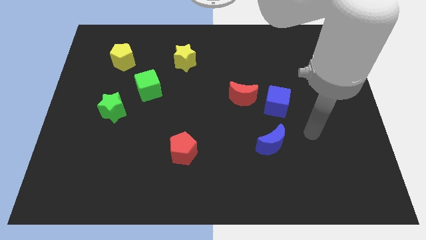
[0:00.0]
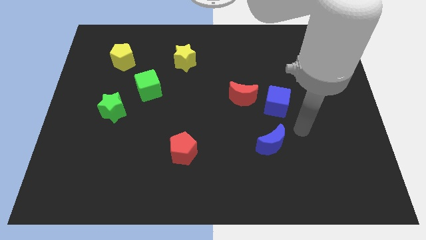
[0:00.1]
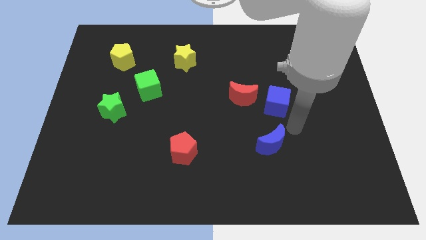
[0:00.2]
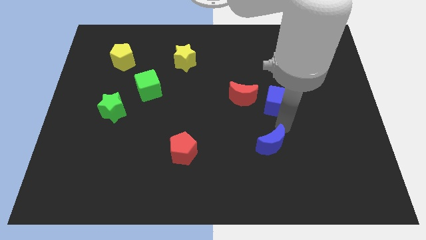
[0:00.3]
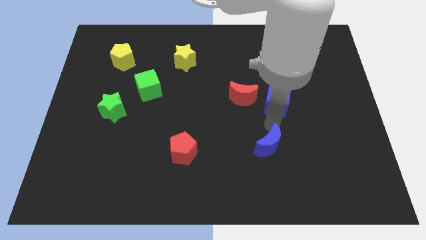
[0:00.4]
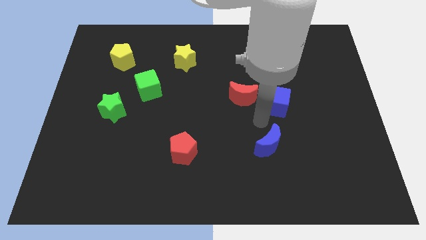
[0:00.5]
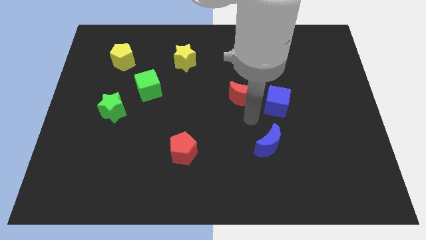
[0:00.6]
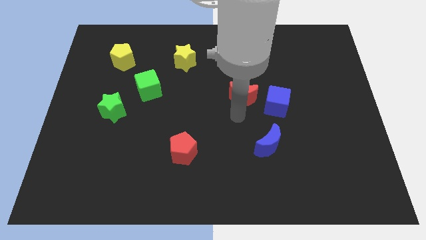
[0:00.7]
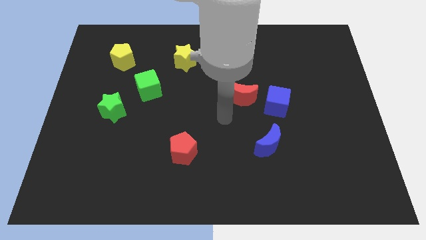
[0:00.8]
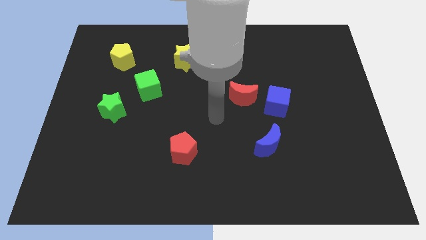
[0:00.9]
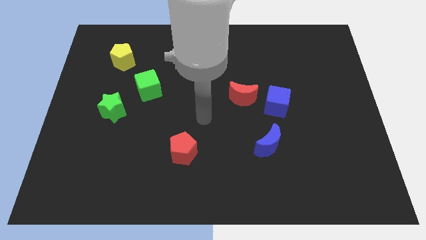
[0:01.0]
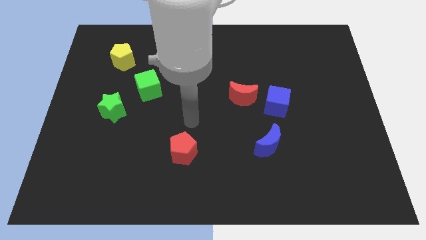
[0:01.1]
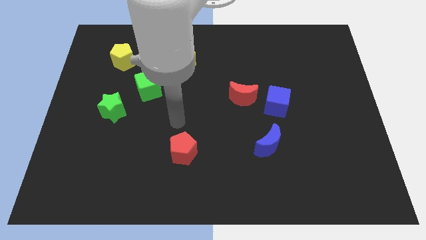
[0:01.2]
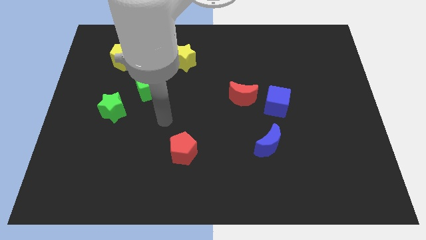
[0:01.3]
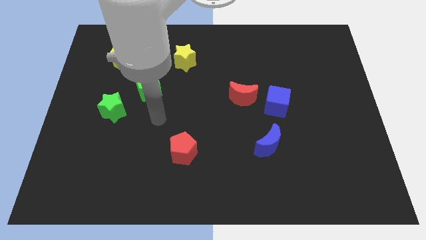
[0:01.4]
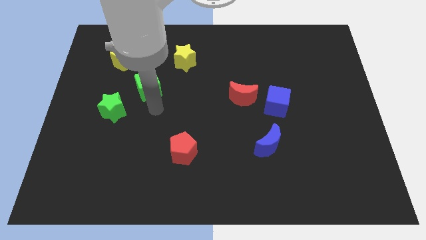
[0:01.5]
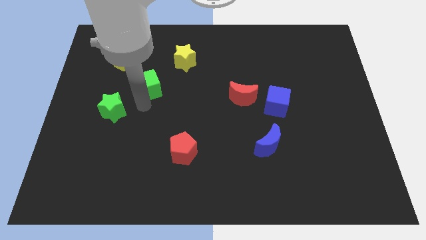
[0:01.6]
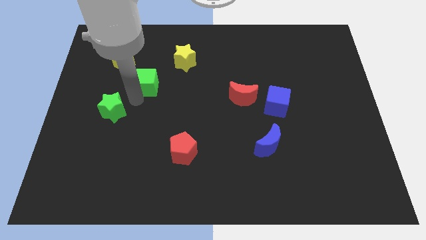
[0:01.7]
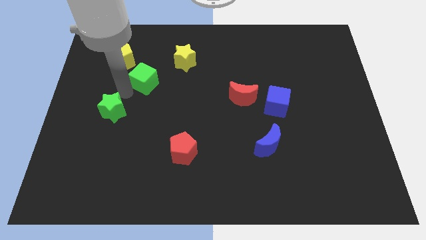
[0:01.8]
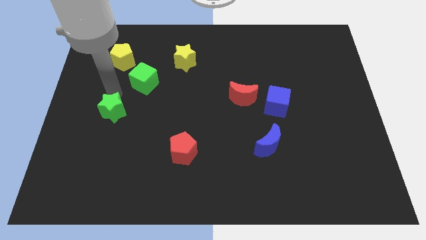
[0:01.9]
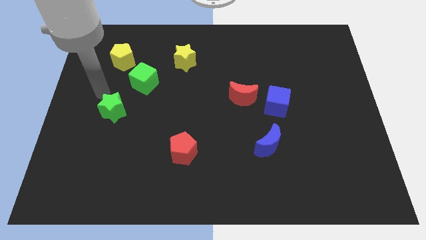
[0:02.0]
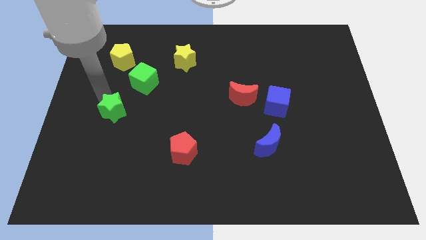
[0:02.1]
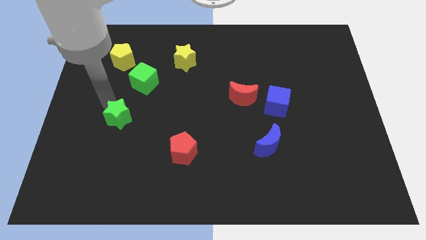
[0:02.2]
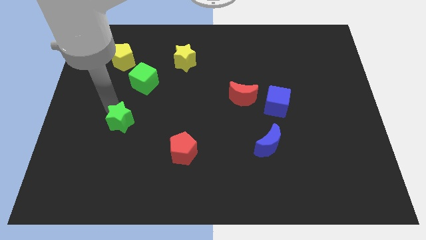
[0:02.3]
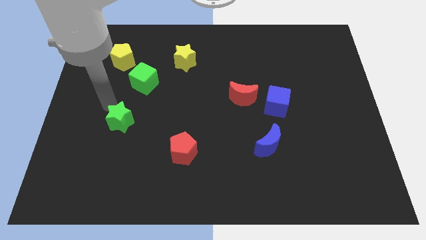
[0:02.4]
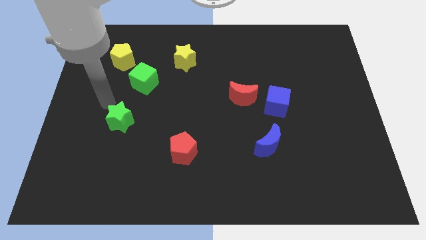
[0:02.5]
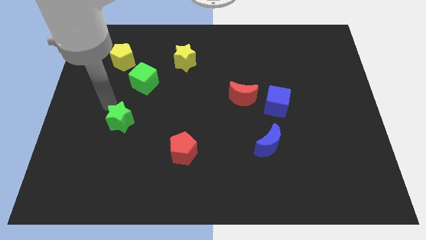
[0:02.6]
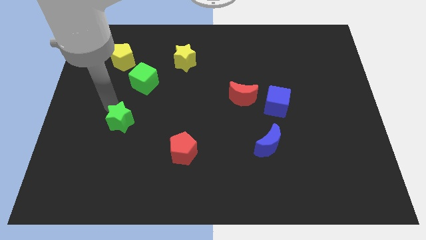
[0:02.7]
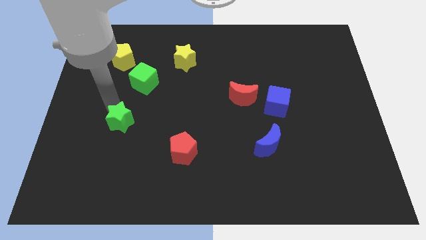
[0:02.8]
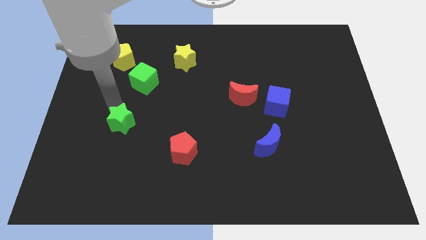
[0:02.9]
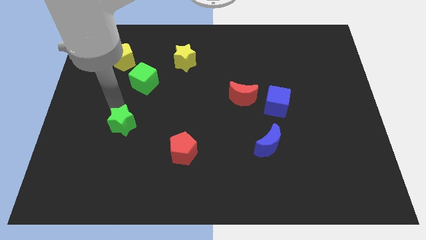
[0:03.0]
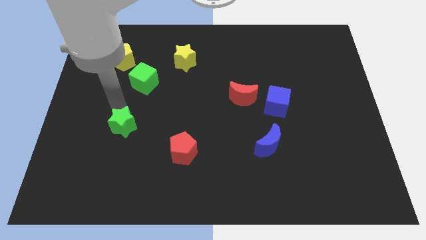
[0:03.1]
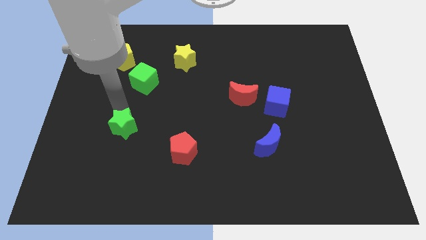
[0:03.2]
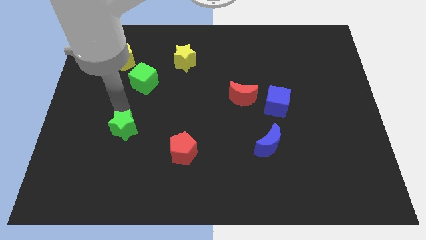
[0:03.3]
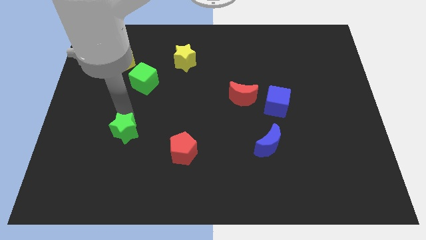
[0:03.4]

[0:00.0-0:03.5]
move the green star slightly down and right diagonally

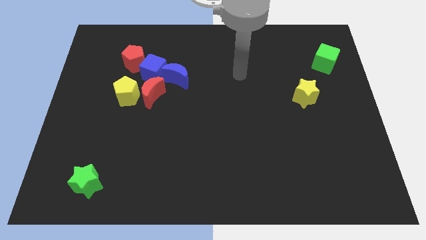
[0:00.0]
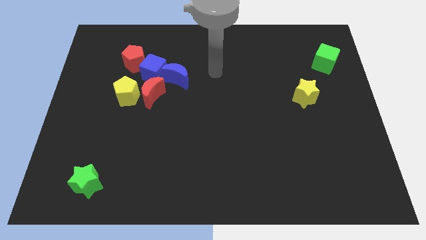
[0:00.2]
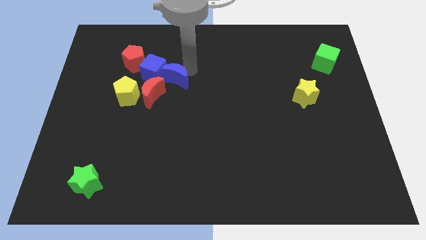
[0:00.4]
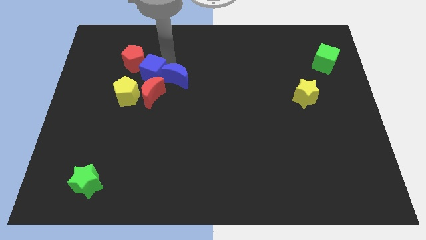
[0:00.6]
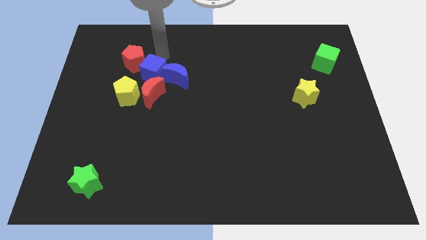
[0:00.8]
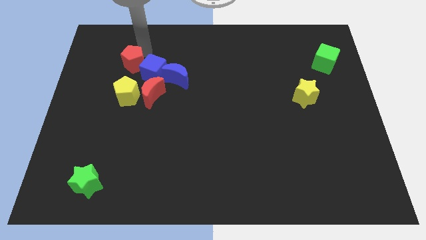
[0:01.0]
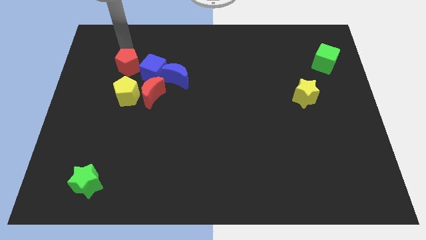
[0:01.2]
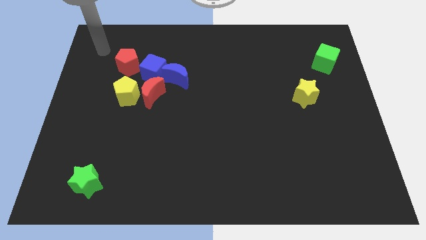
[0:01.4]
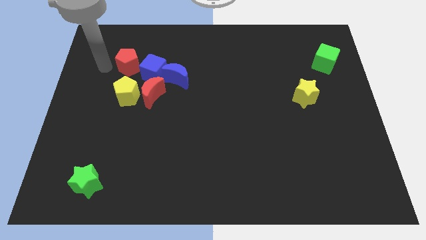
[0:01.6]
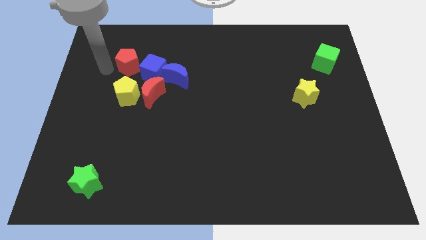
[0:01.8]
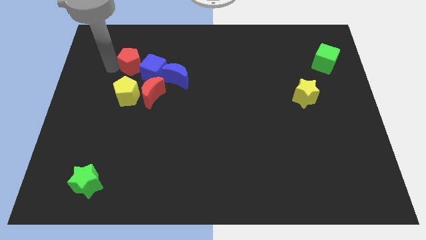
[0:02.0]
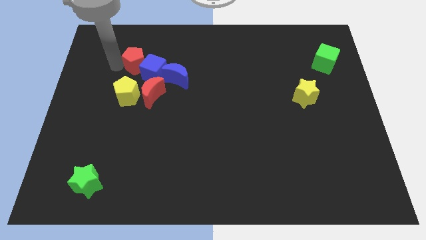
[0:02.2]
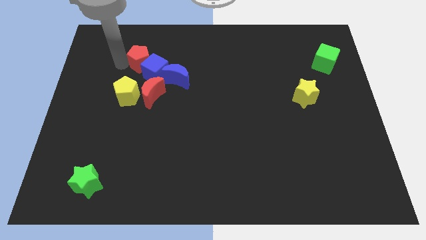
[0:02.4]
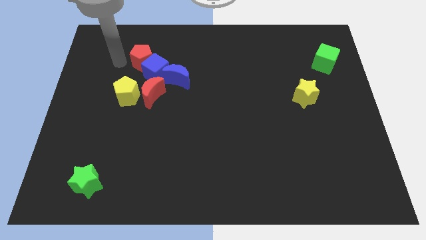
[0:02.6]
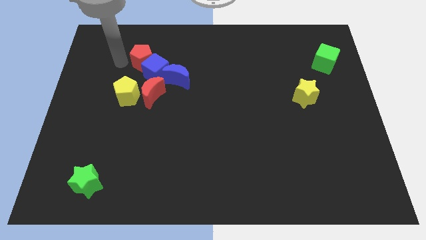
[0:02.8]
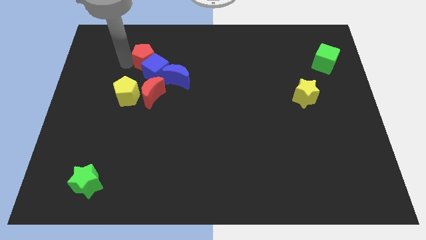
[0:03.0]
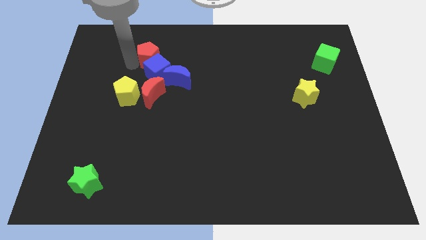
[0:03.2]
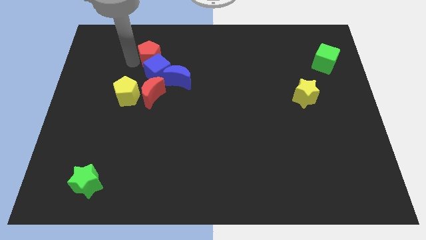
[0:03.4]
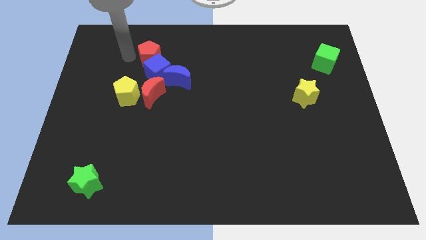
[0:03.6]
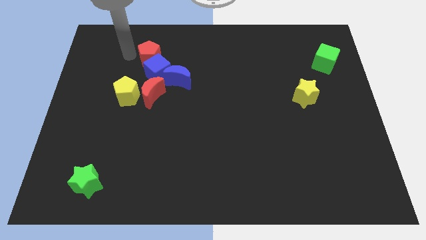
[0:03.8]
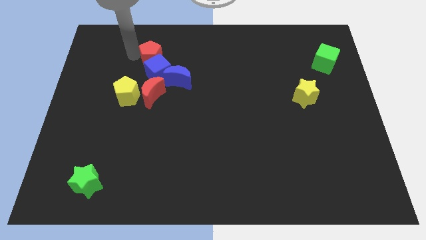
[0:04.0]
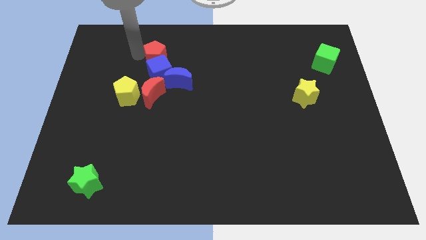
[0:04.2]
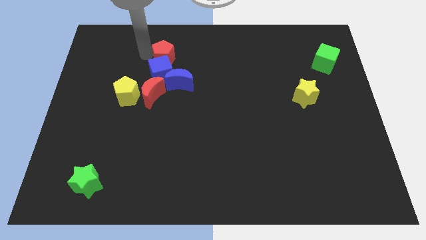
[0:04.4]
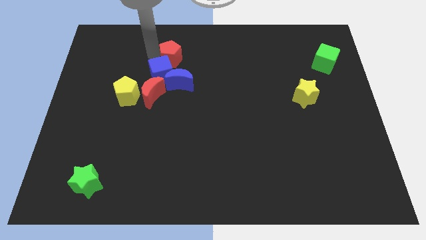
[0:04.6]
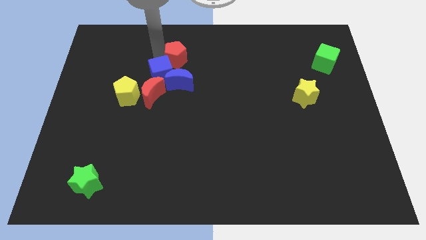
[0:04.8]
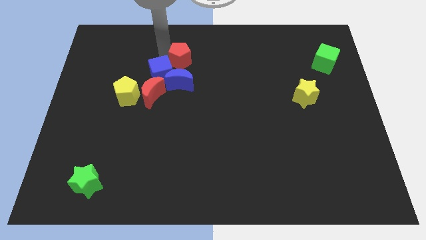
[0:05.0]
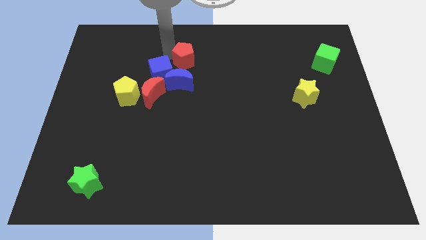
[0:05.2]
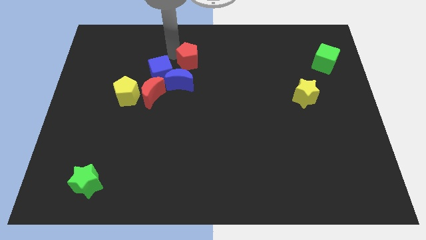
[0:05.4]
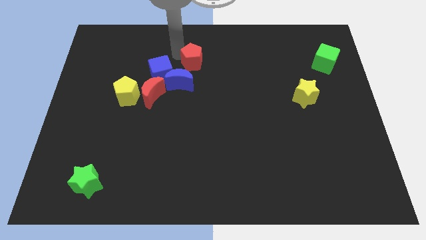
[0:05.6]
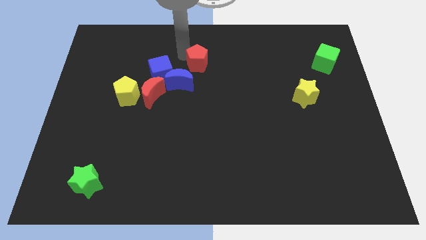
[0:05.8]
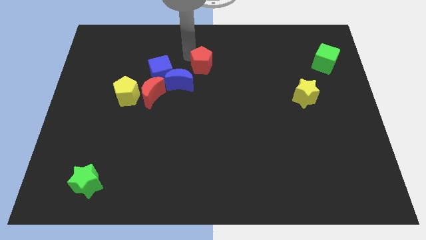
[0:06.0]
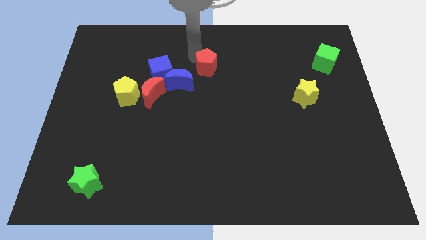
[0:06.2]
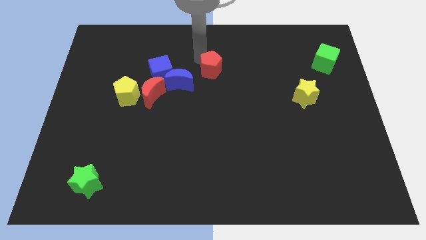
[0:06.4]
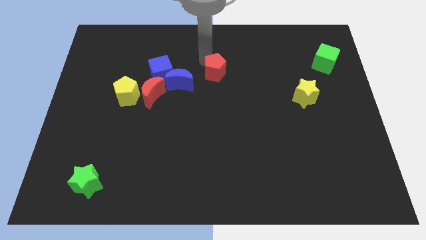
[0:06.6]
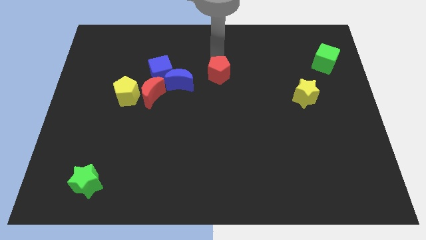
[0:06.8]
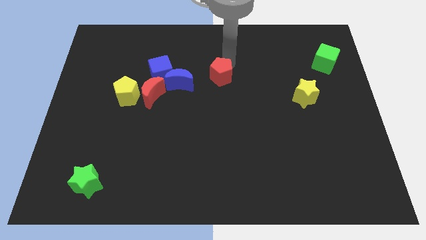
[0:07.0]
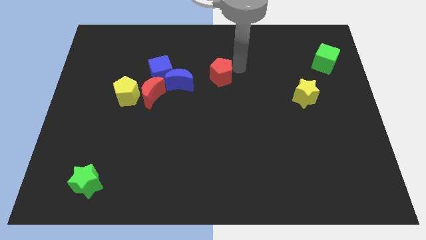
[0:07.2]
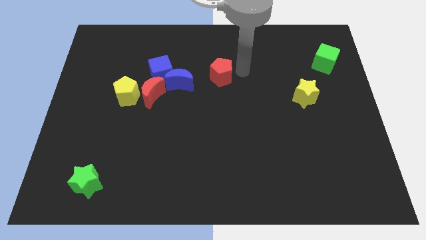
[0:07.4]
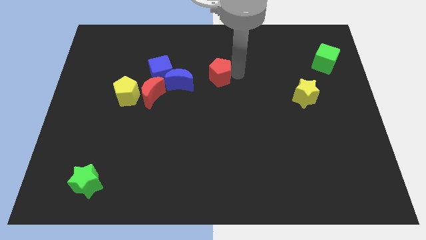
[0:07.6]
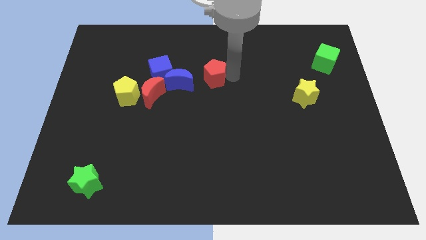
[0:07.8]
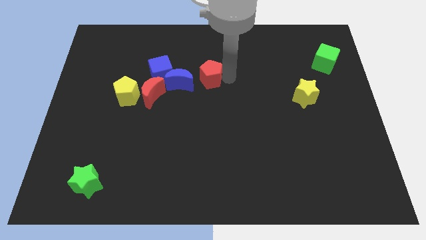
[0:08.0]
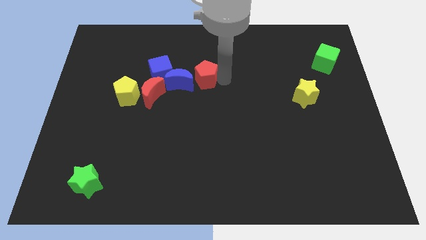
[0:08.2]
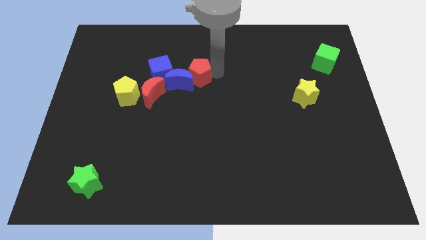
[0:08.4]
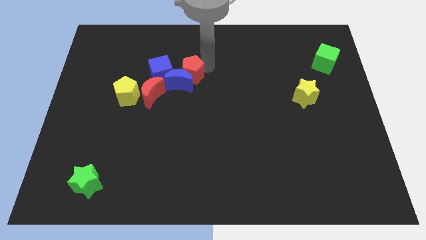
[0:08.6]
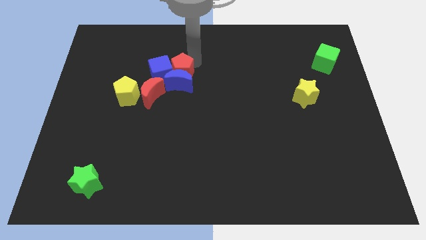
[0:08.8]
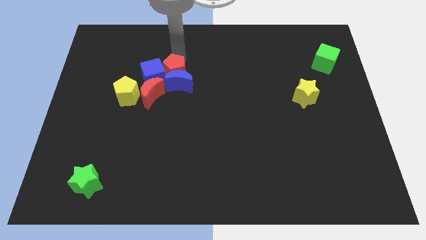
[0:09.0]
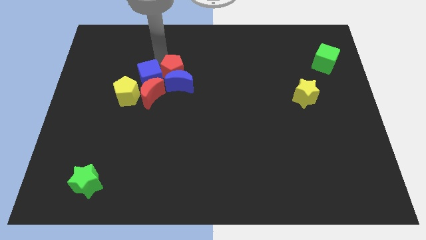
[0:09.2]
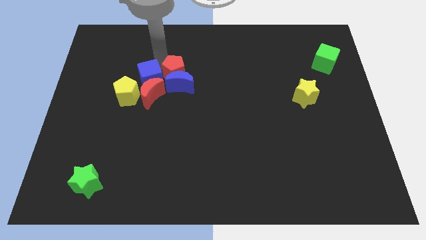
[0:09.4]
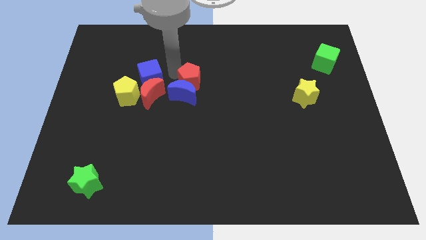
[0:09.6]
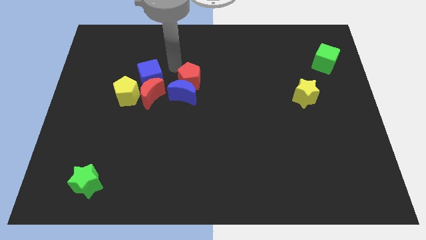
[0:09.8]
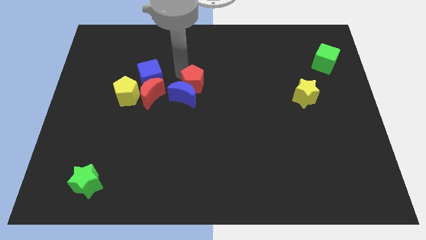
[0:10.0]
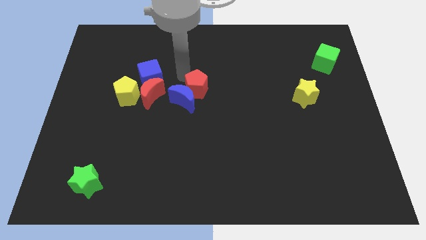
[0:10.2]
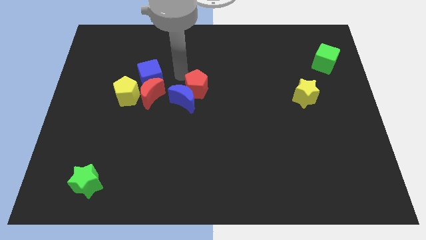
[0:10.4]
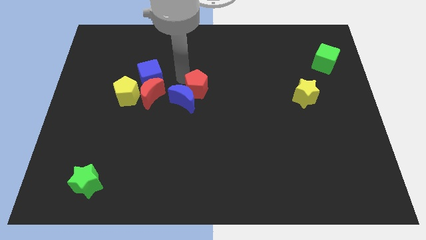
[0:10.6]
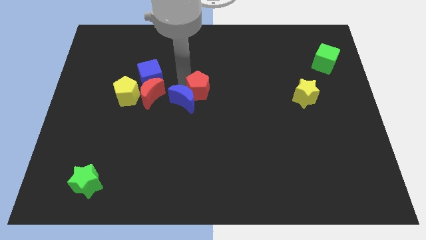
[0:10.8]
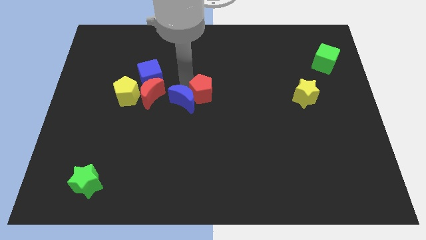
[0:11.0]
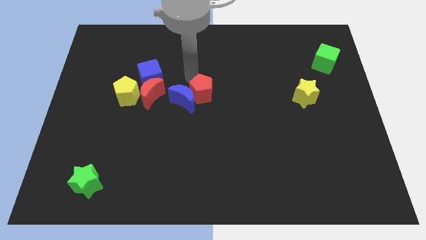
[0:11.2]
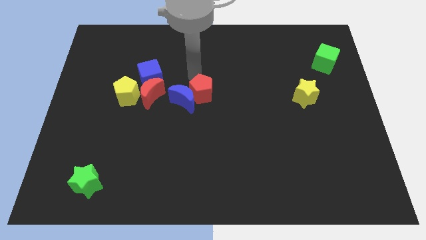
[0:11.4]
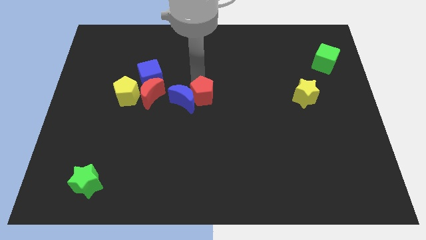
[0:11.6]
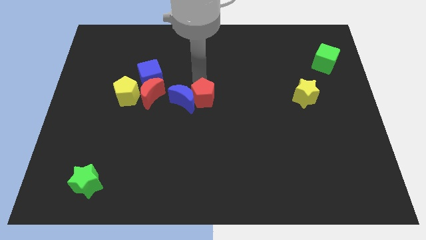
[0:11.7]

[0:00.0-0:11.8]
slide the red pentagon down and then to the right
